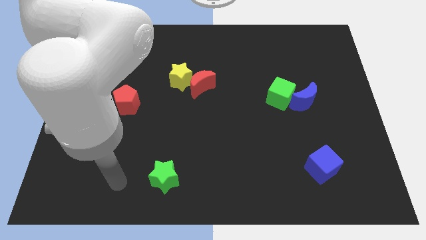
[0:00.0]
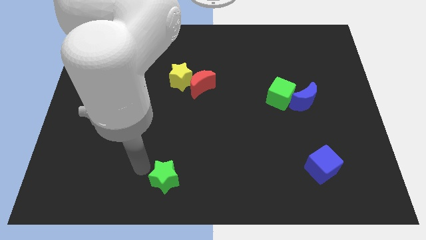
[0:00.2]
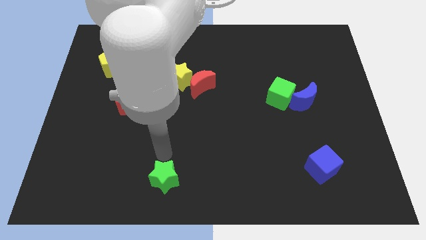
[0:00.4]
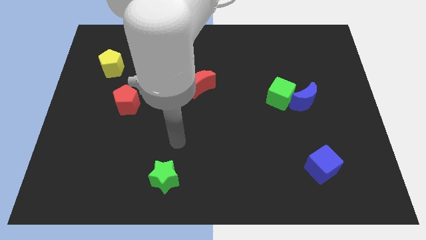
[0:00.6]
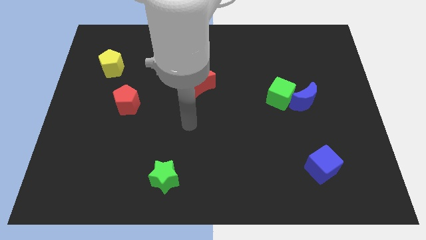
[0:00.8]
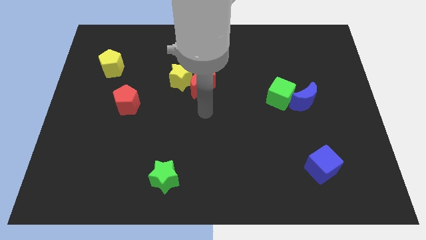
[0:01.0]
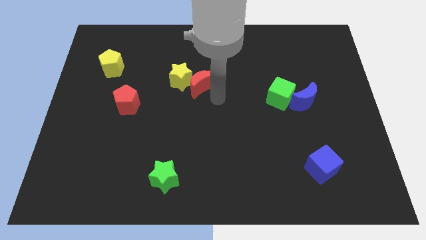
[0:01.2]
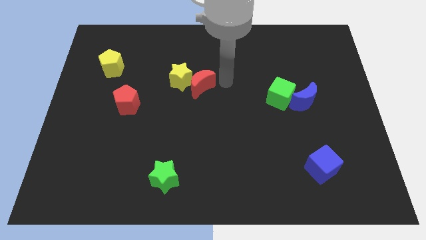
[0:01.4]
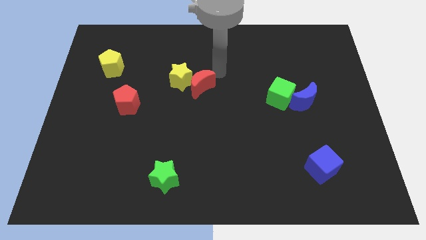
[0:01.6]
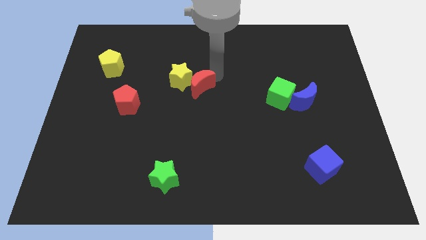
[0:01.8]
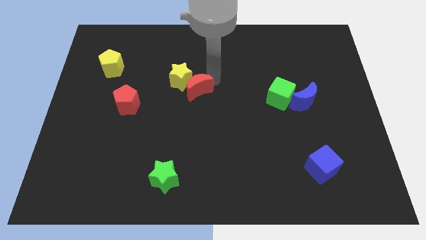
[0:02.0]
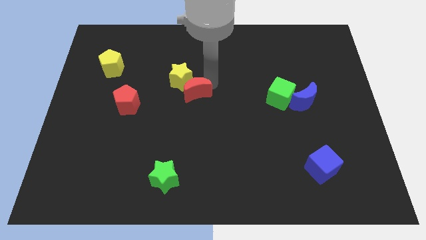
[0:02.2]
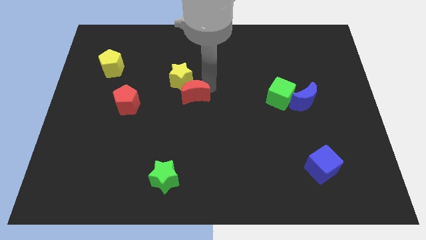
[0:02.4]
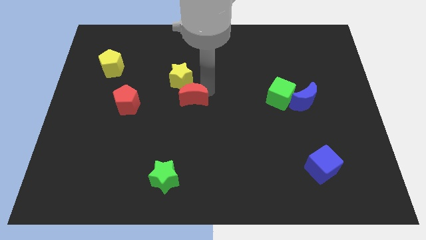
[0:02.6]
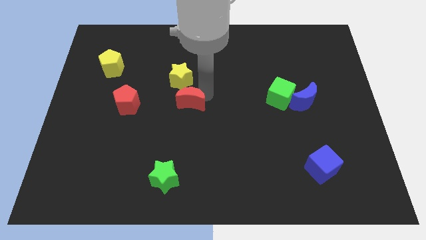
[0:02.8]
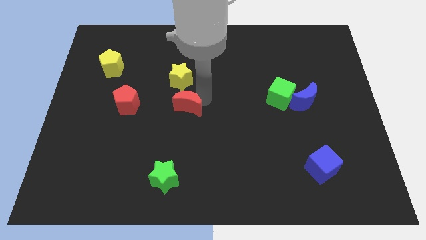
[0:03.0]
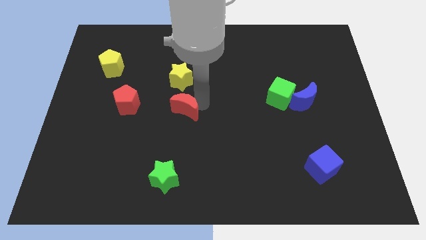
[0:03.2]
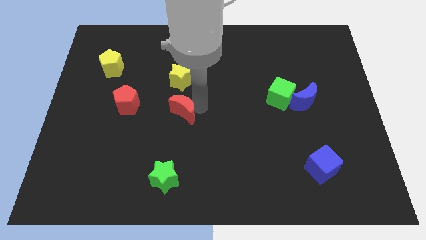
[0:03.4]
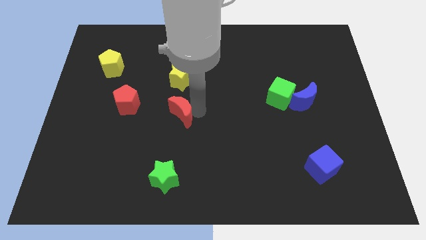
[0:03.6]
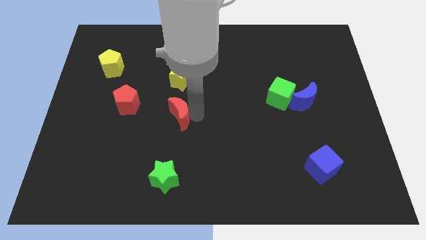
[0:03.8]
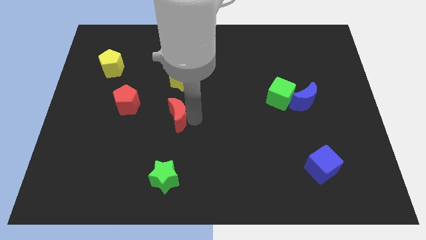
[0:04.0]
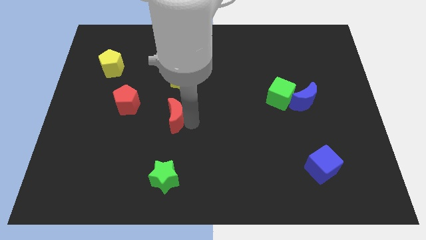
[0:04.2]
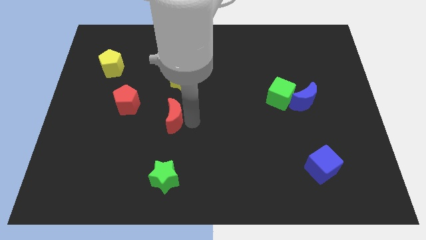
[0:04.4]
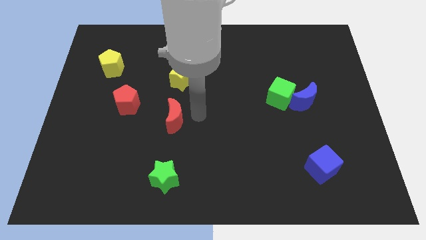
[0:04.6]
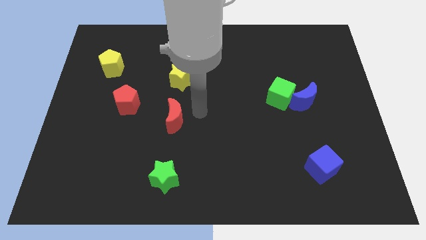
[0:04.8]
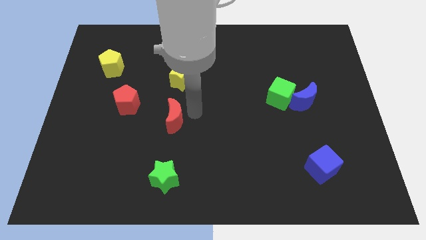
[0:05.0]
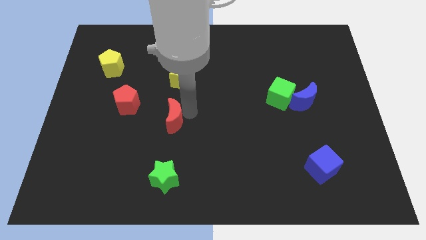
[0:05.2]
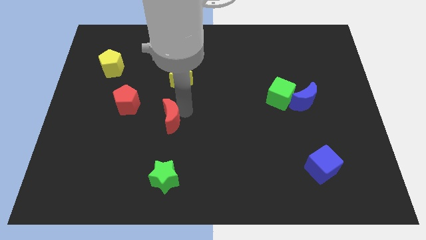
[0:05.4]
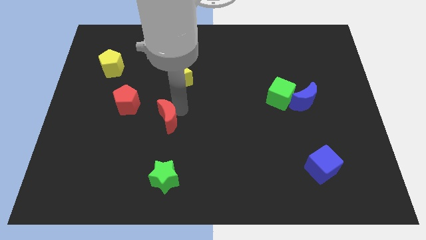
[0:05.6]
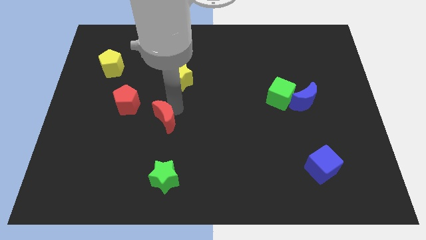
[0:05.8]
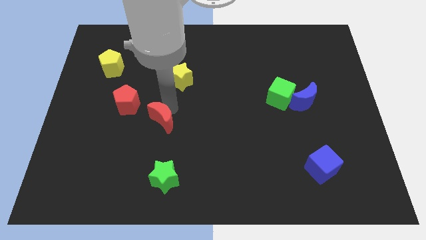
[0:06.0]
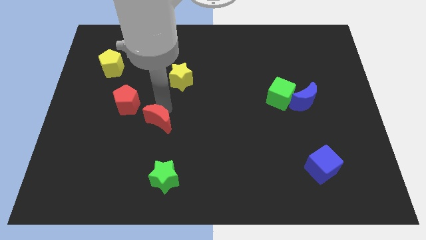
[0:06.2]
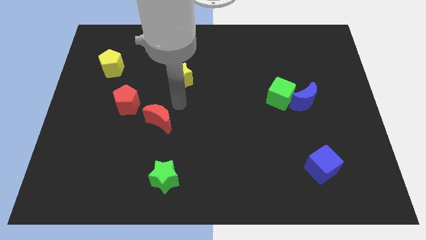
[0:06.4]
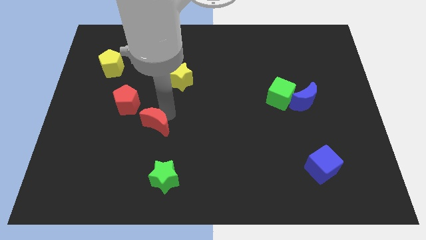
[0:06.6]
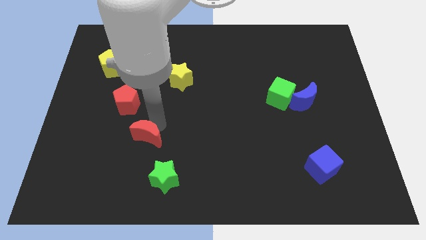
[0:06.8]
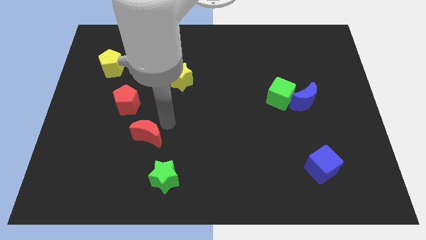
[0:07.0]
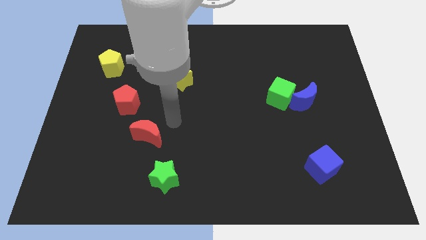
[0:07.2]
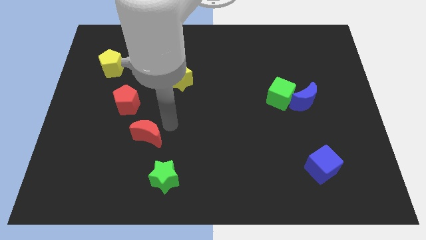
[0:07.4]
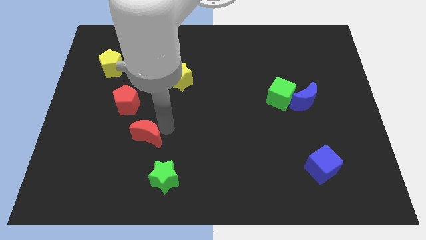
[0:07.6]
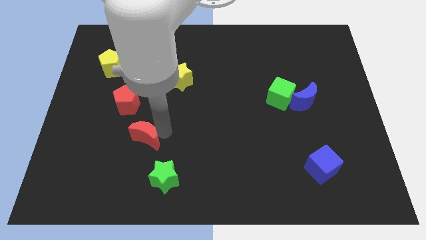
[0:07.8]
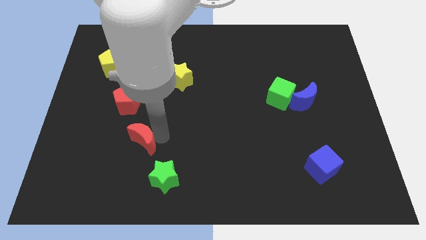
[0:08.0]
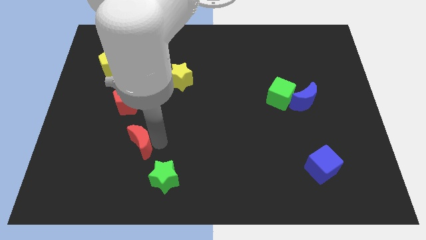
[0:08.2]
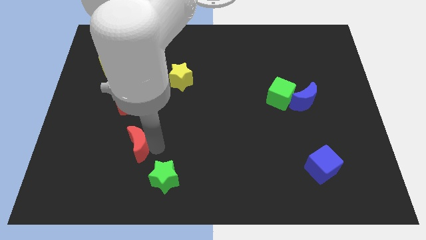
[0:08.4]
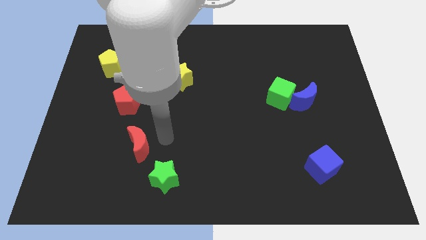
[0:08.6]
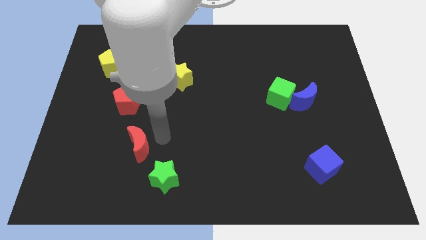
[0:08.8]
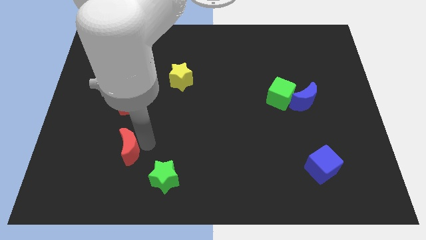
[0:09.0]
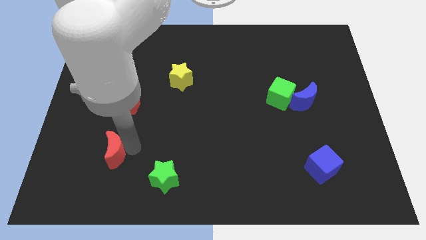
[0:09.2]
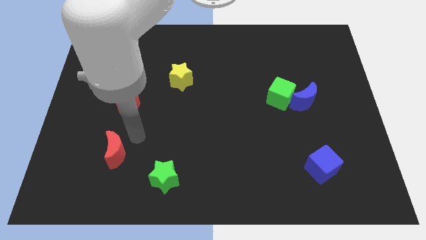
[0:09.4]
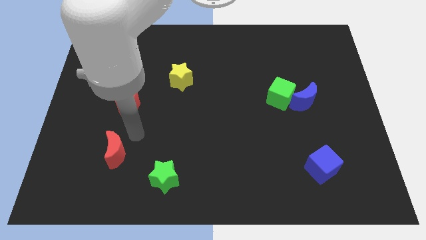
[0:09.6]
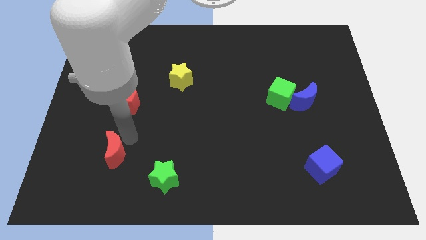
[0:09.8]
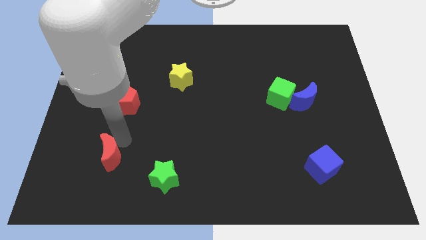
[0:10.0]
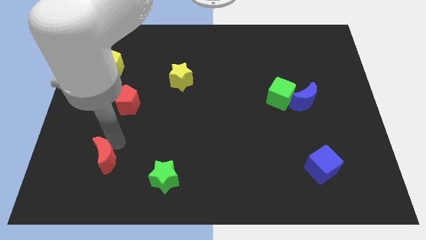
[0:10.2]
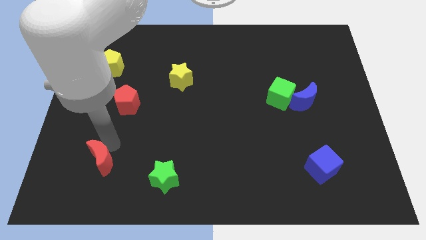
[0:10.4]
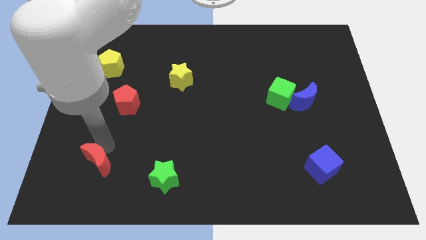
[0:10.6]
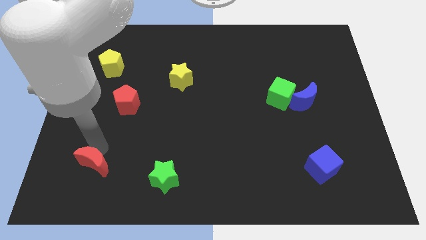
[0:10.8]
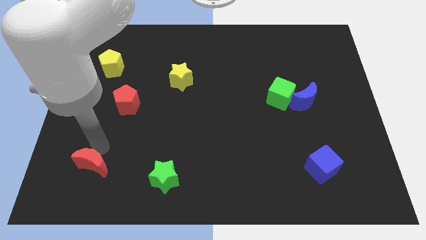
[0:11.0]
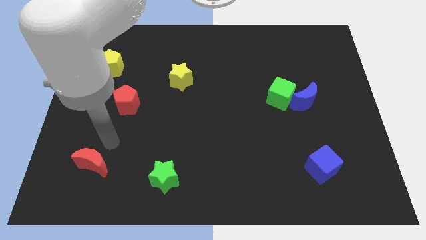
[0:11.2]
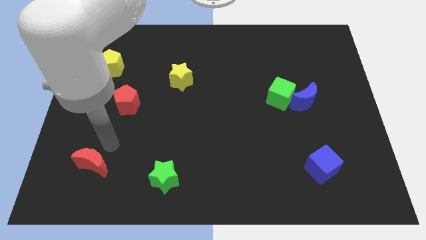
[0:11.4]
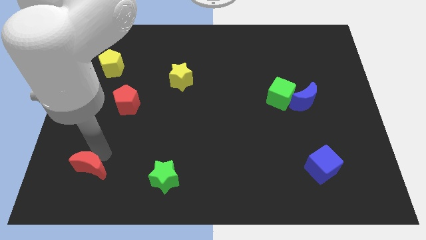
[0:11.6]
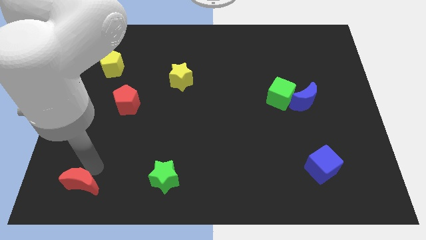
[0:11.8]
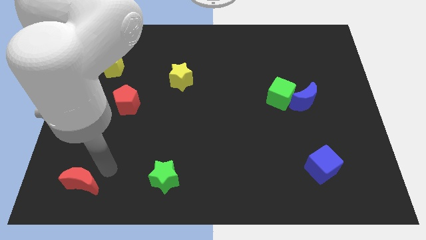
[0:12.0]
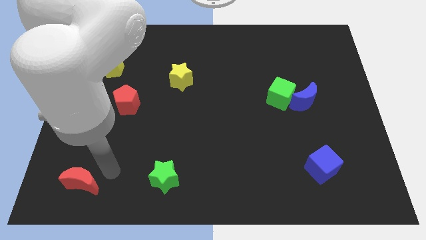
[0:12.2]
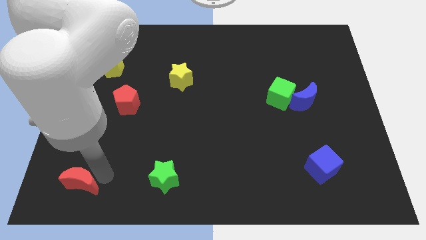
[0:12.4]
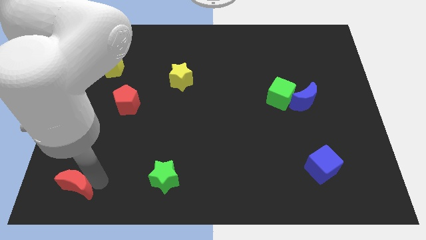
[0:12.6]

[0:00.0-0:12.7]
move the red moon to the bottom left of the board
